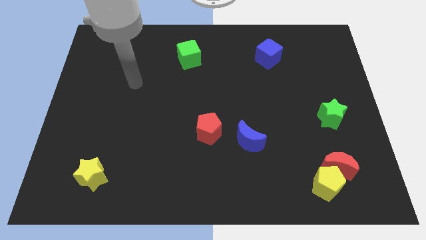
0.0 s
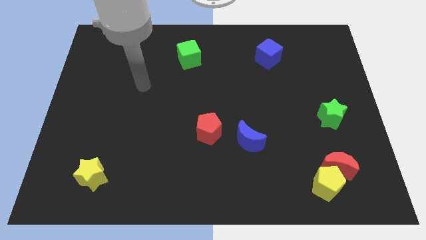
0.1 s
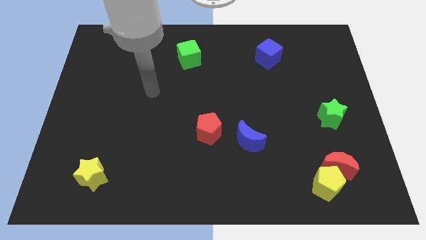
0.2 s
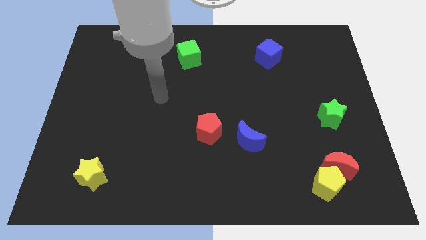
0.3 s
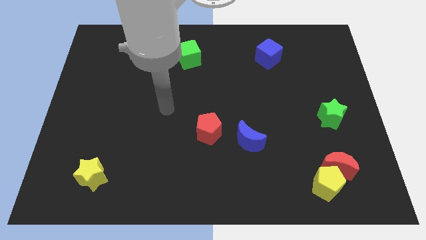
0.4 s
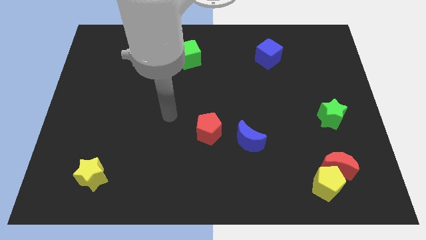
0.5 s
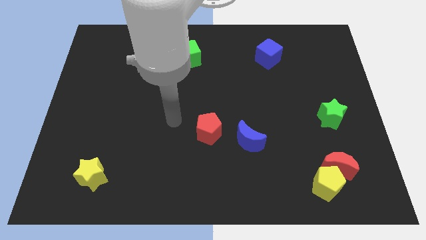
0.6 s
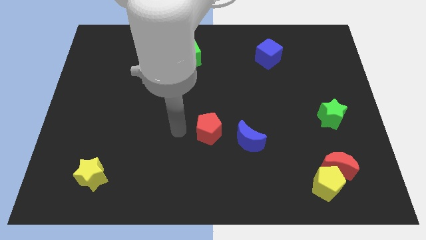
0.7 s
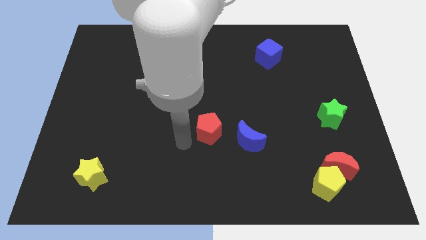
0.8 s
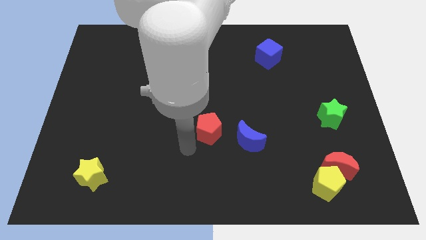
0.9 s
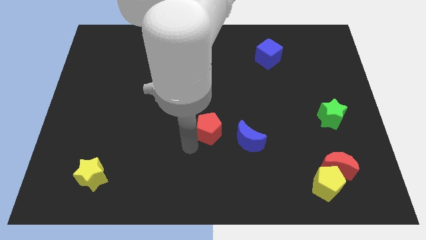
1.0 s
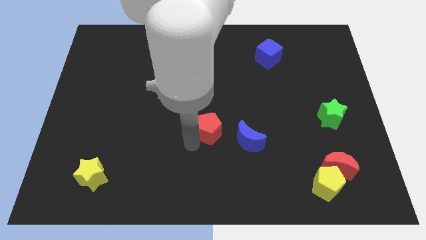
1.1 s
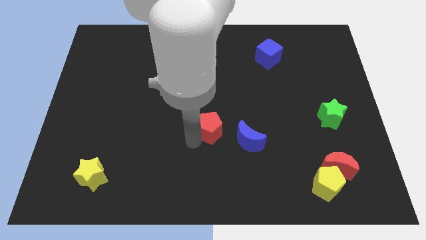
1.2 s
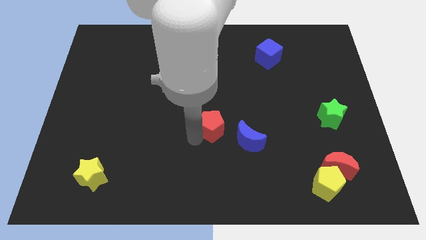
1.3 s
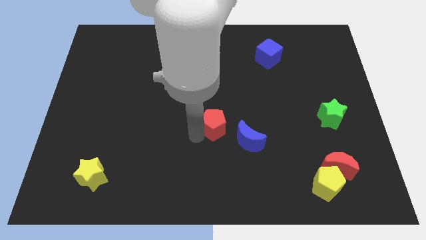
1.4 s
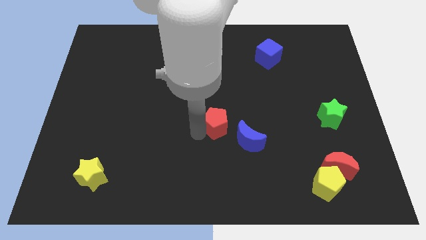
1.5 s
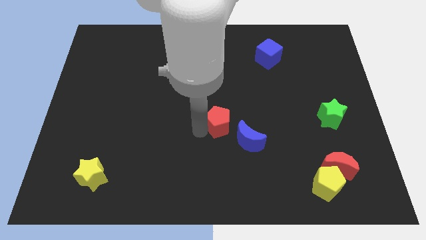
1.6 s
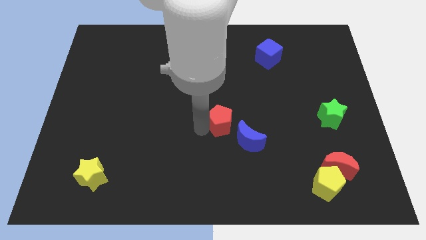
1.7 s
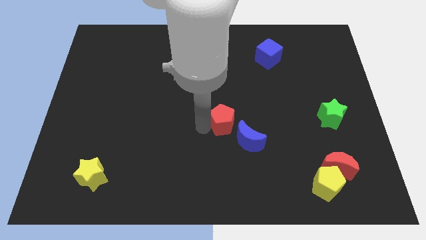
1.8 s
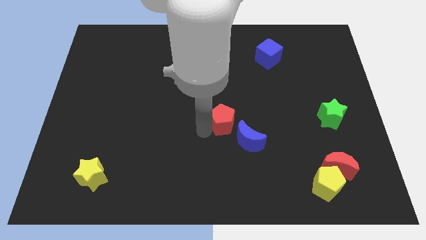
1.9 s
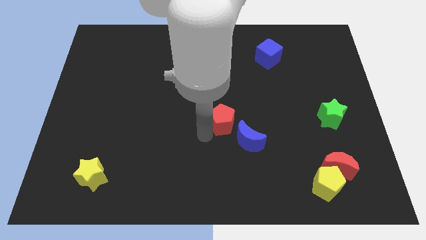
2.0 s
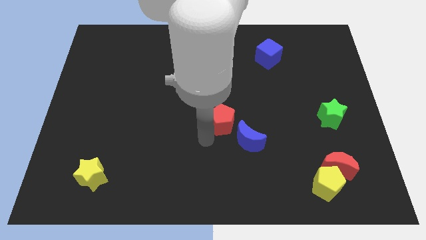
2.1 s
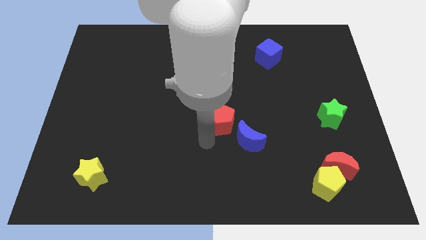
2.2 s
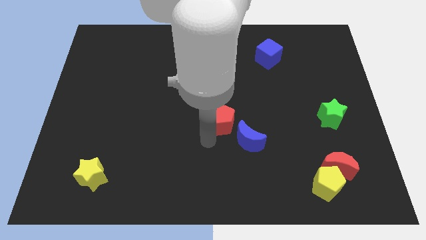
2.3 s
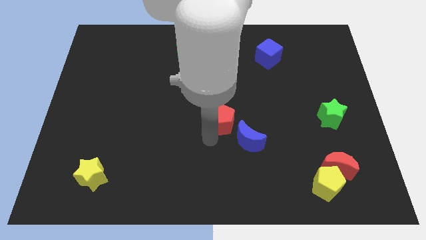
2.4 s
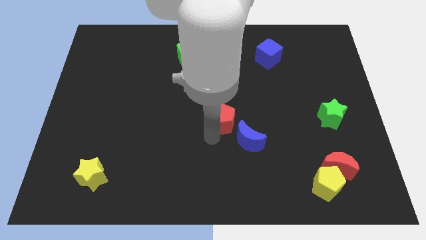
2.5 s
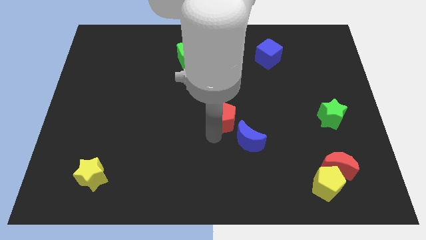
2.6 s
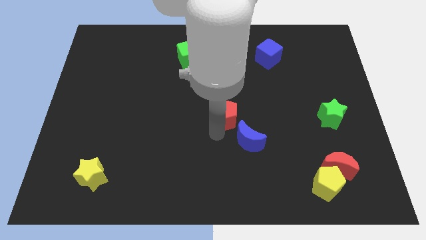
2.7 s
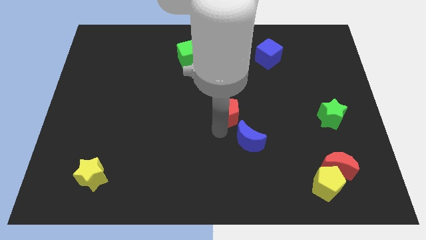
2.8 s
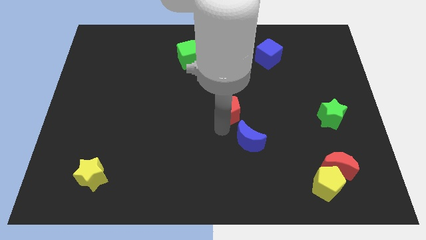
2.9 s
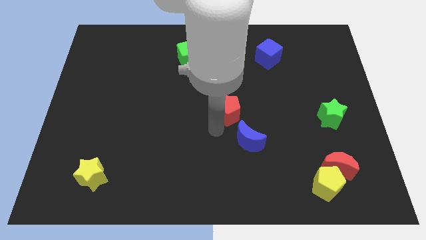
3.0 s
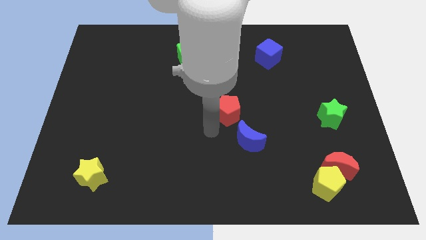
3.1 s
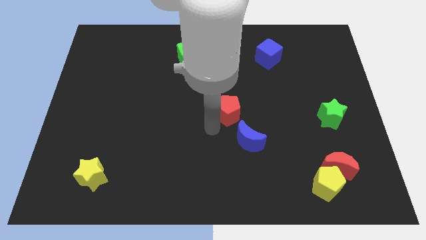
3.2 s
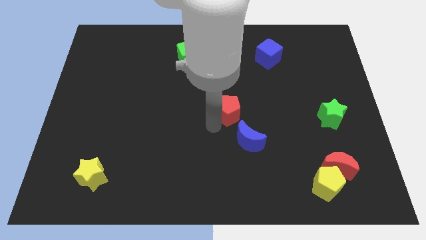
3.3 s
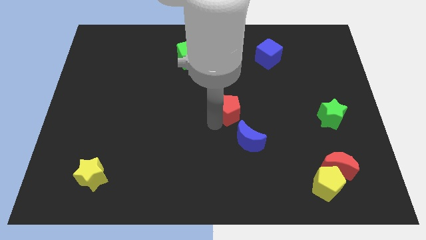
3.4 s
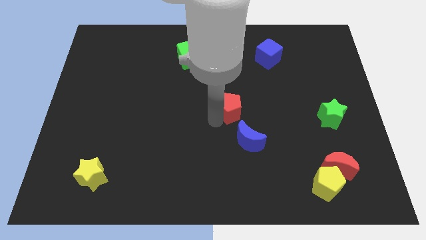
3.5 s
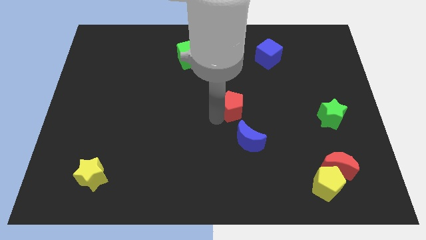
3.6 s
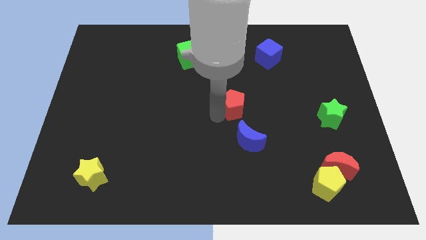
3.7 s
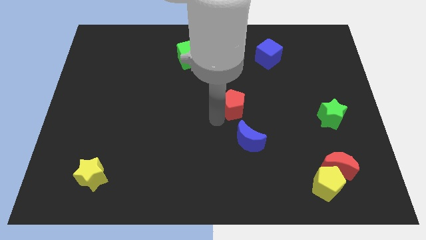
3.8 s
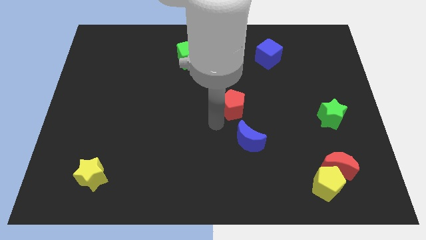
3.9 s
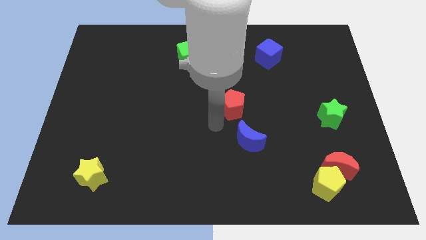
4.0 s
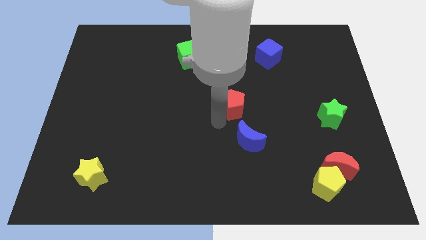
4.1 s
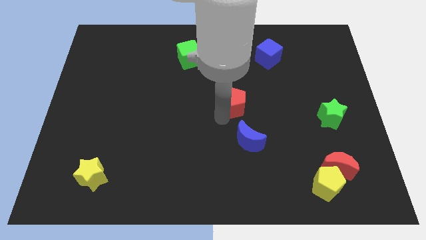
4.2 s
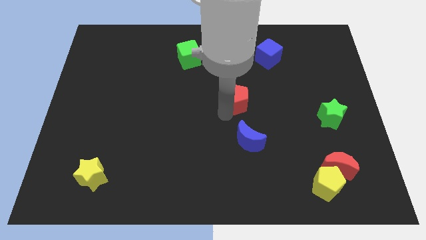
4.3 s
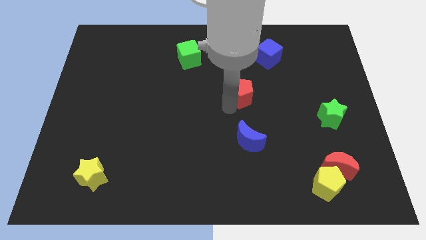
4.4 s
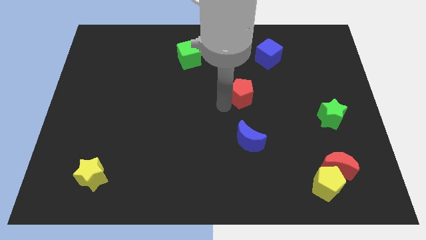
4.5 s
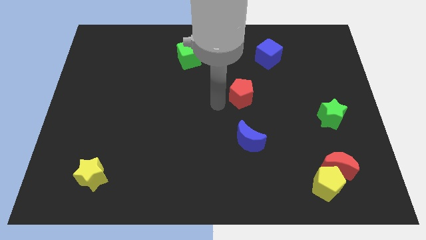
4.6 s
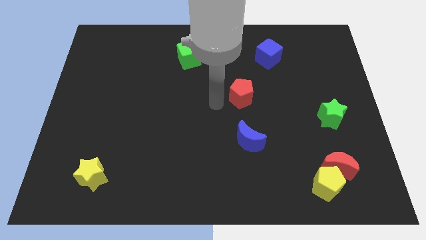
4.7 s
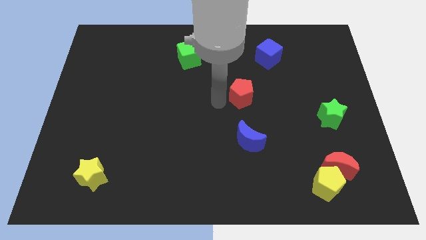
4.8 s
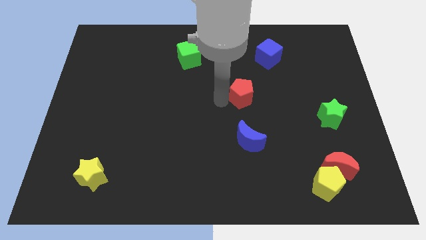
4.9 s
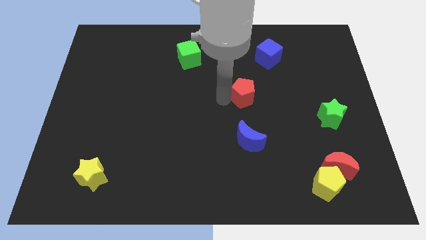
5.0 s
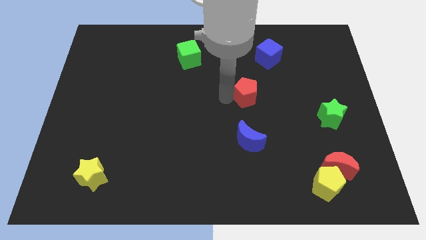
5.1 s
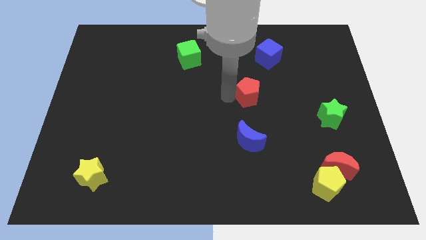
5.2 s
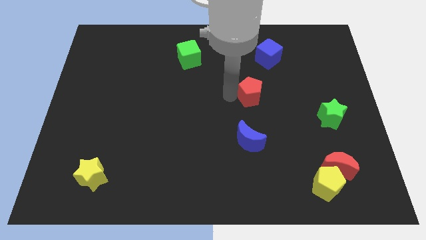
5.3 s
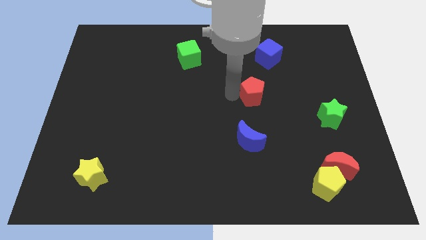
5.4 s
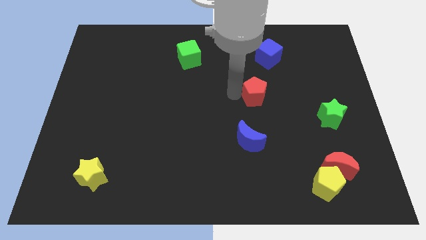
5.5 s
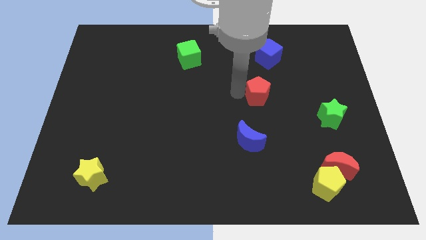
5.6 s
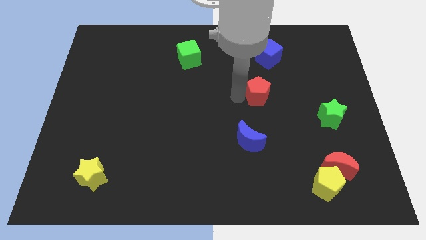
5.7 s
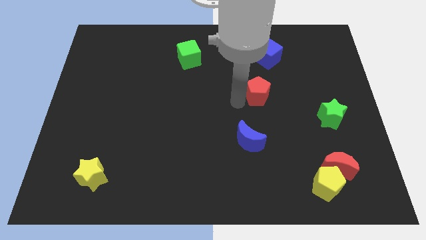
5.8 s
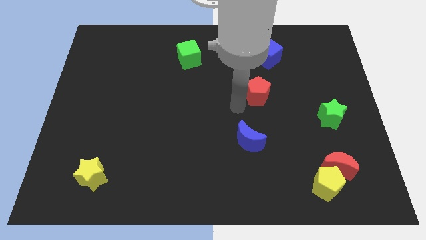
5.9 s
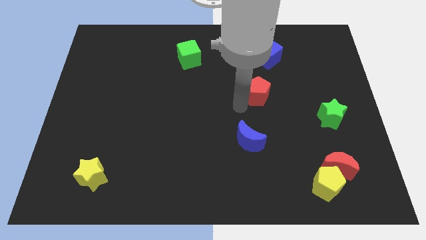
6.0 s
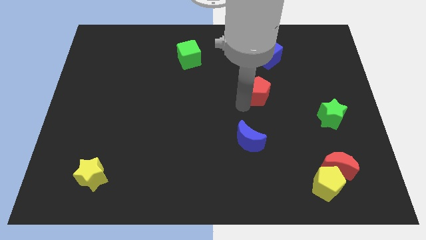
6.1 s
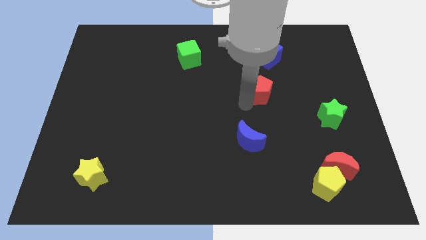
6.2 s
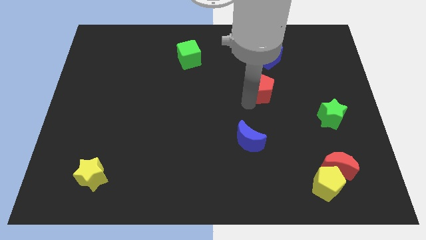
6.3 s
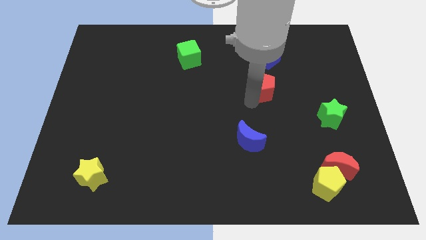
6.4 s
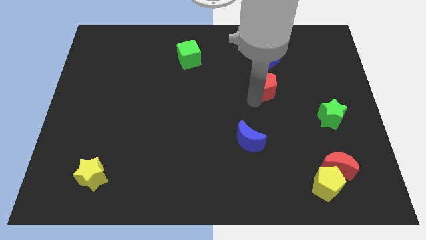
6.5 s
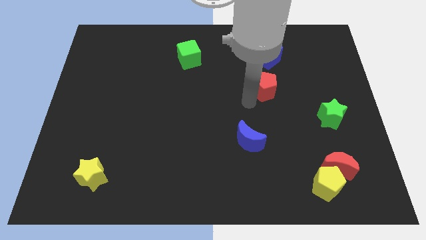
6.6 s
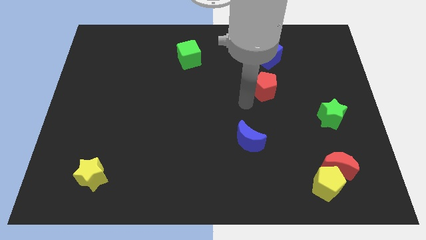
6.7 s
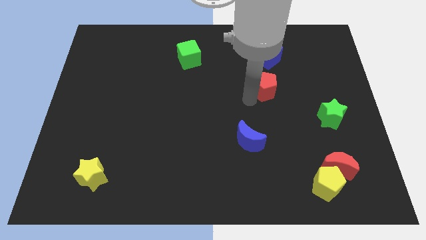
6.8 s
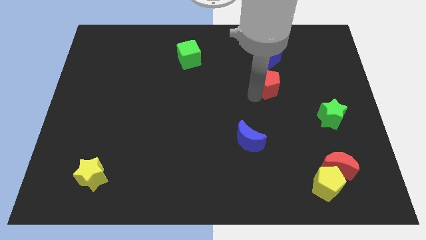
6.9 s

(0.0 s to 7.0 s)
move the red pentagon upwards and right

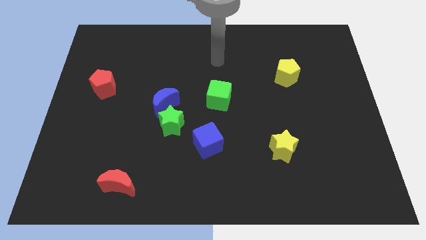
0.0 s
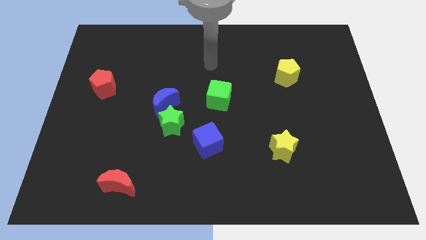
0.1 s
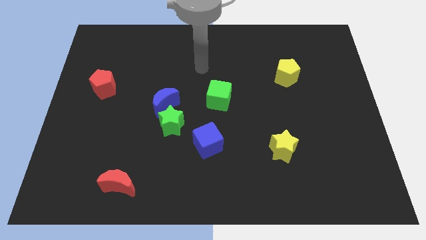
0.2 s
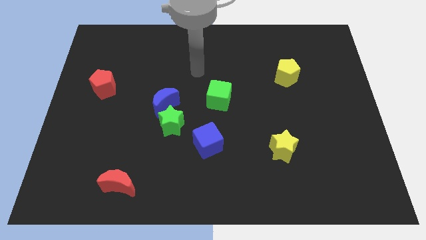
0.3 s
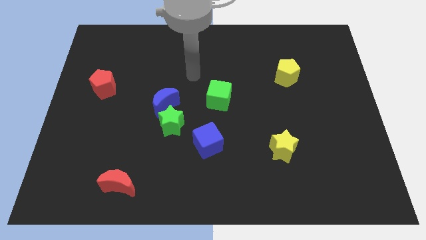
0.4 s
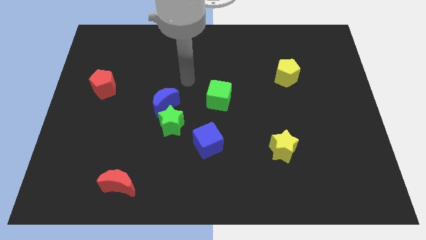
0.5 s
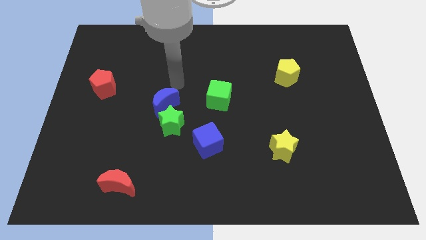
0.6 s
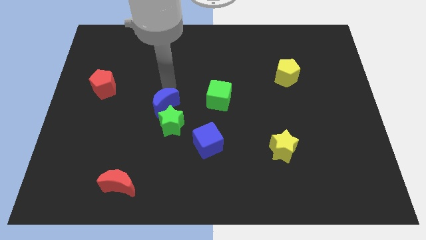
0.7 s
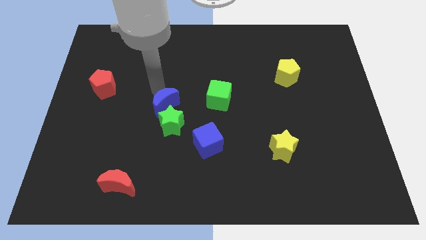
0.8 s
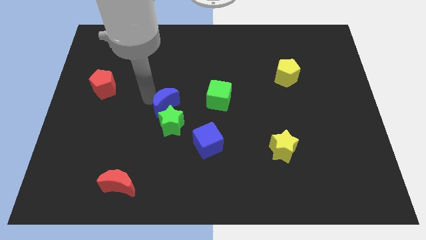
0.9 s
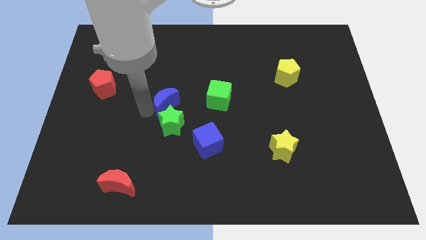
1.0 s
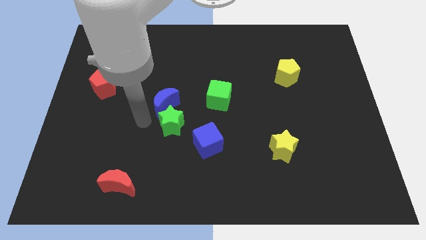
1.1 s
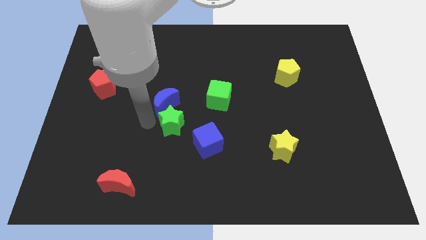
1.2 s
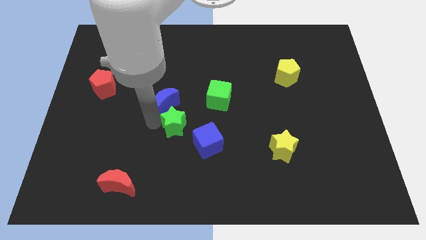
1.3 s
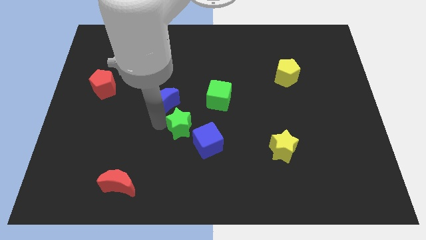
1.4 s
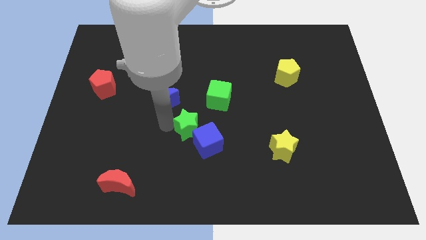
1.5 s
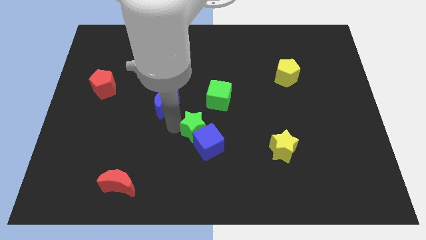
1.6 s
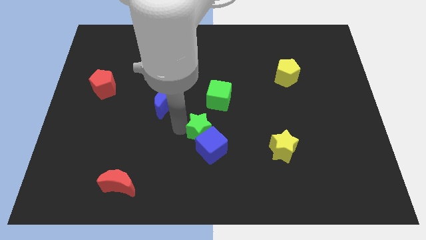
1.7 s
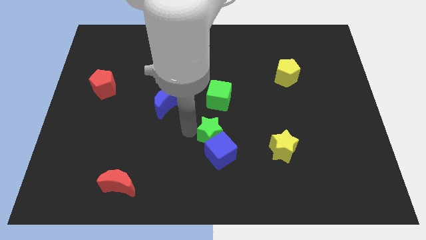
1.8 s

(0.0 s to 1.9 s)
push the green star right somewhat
